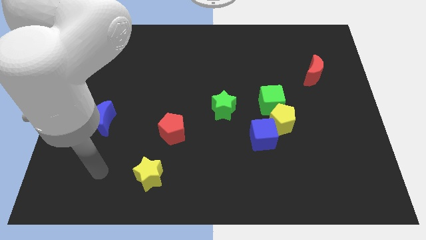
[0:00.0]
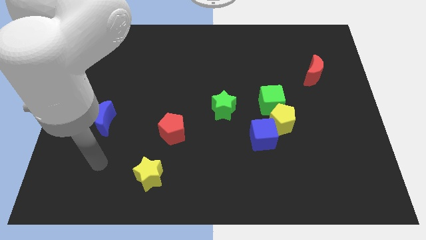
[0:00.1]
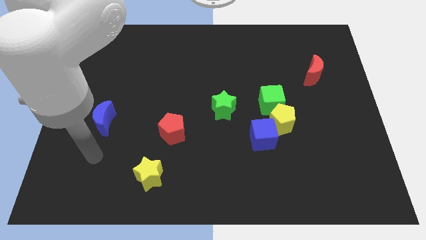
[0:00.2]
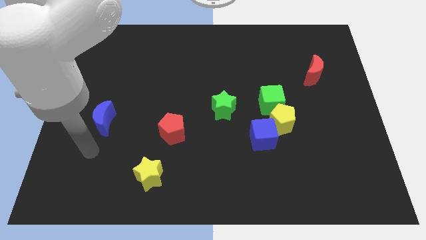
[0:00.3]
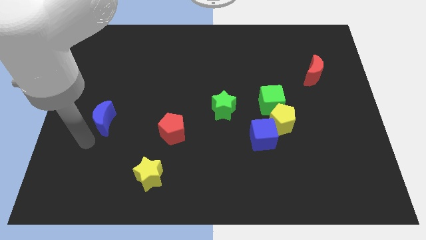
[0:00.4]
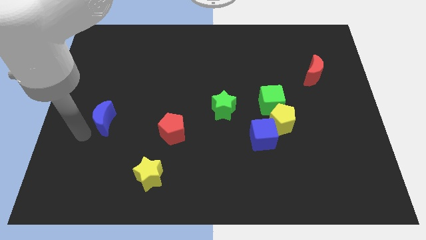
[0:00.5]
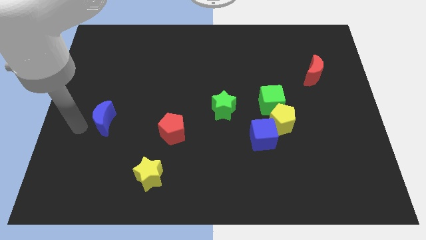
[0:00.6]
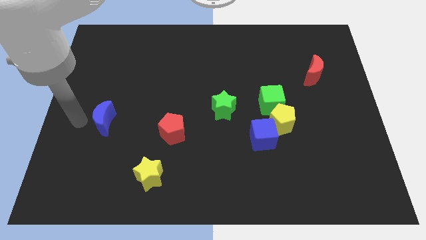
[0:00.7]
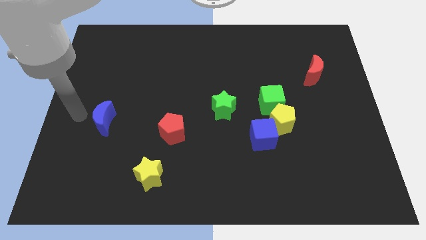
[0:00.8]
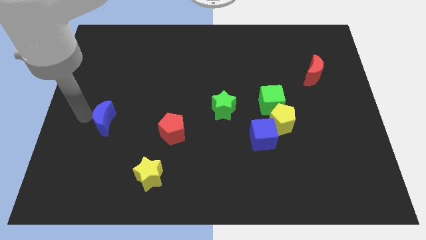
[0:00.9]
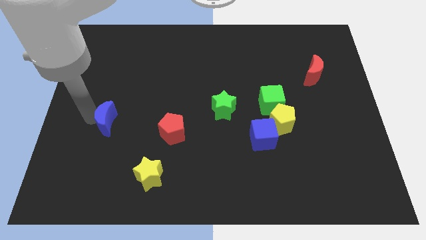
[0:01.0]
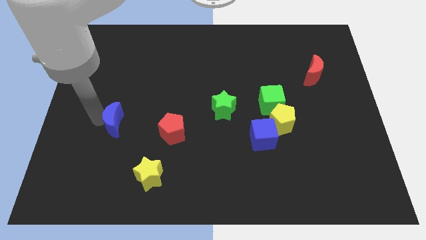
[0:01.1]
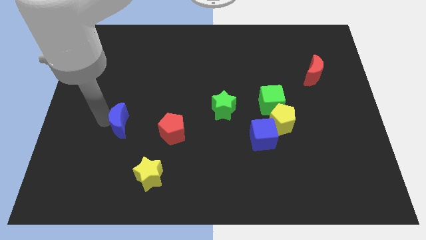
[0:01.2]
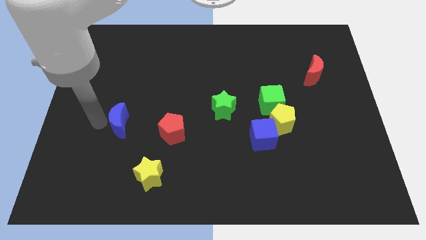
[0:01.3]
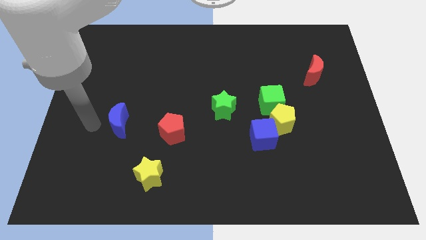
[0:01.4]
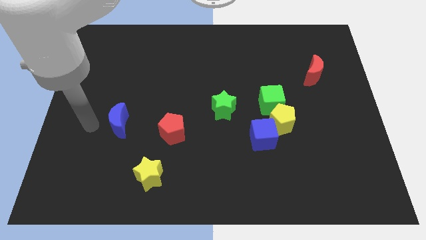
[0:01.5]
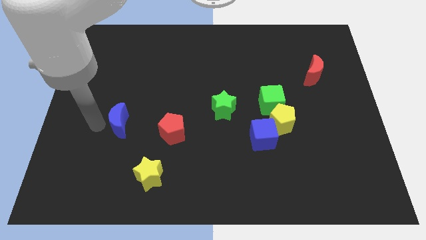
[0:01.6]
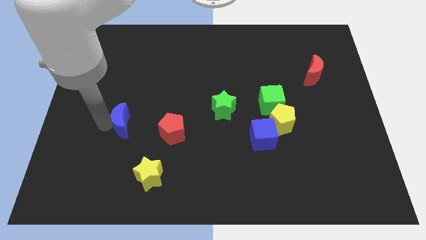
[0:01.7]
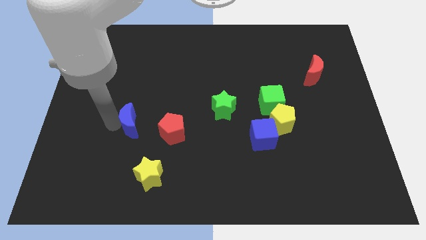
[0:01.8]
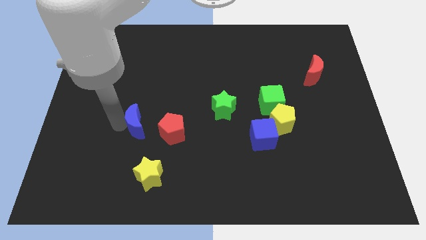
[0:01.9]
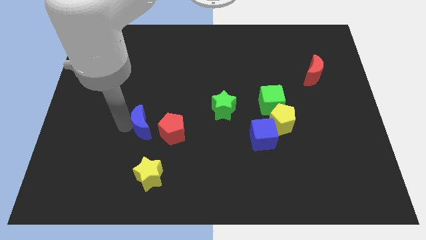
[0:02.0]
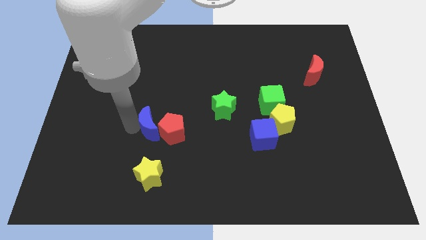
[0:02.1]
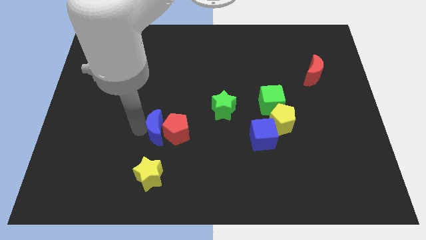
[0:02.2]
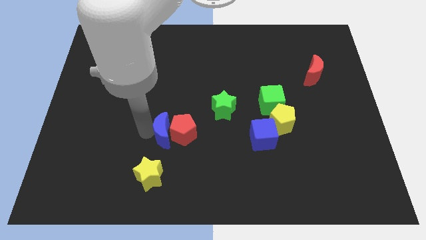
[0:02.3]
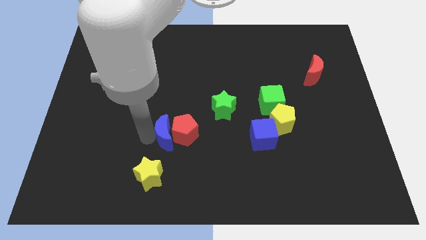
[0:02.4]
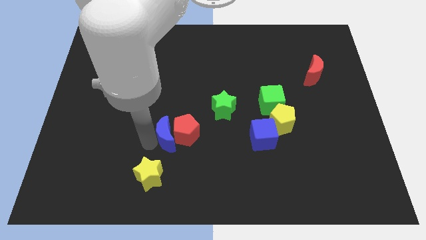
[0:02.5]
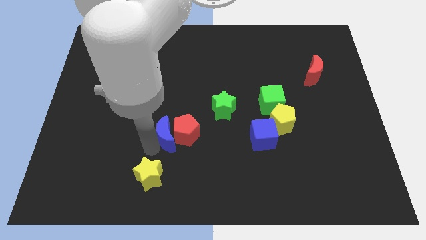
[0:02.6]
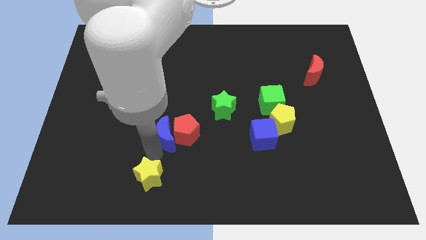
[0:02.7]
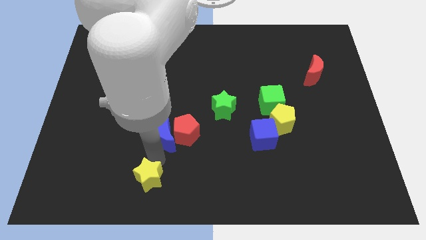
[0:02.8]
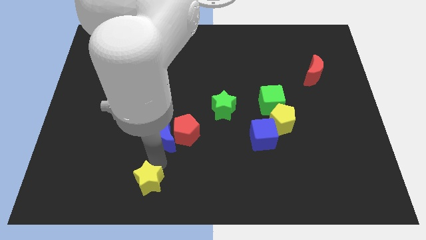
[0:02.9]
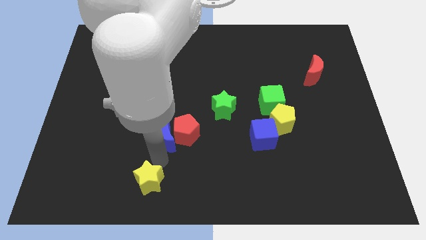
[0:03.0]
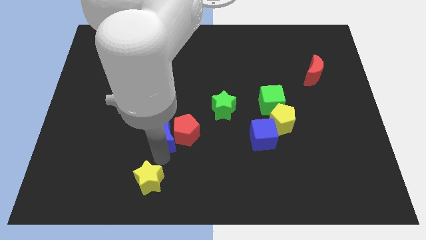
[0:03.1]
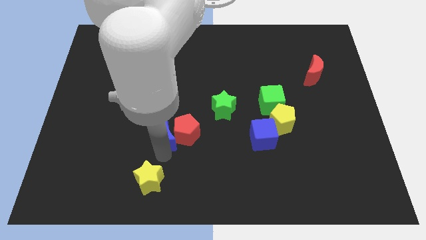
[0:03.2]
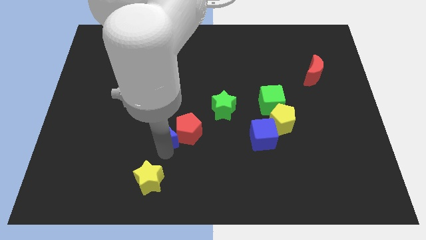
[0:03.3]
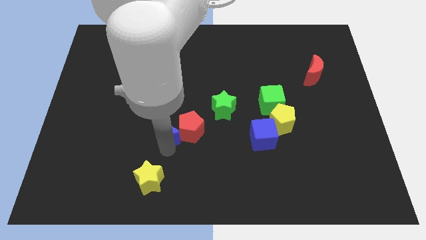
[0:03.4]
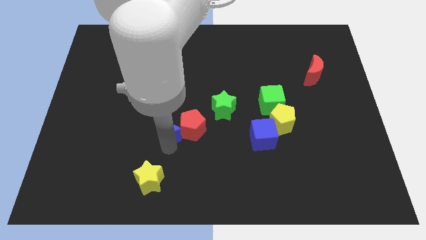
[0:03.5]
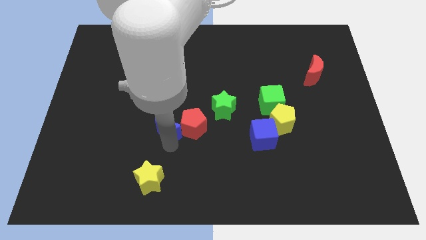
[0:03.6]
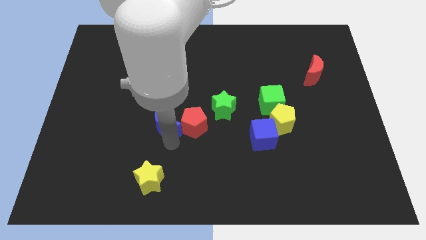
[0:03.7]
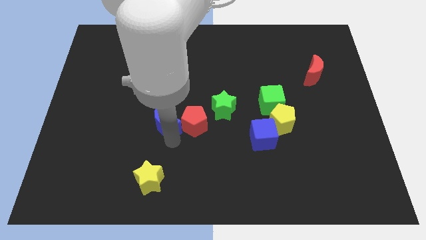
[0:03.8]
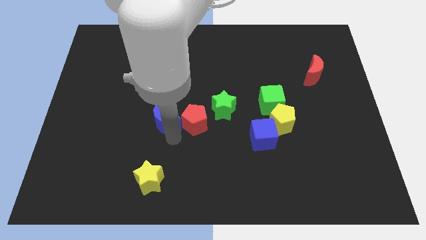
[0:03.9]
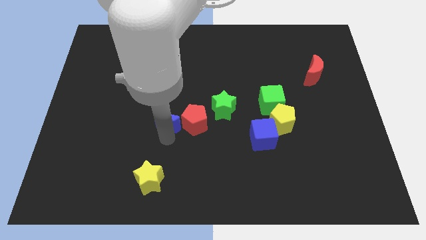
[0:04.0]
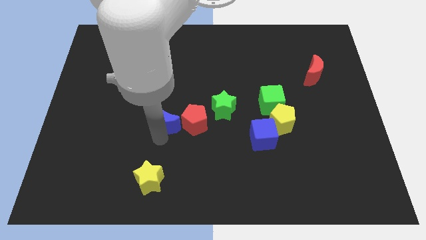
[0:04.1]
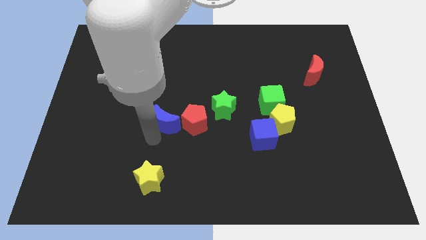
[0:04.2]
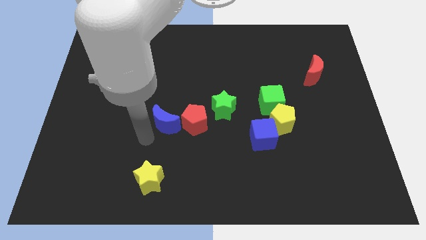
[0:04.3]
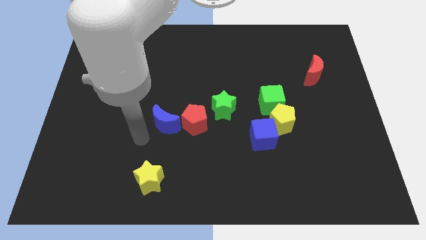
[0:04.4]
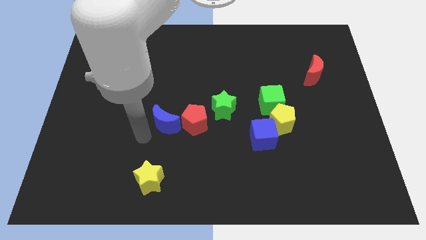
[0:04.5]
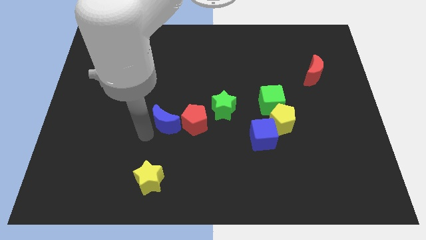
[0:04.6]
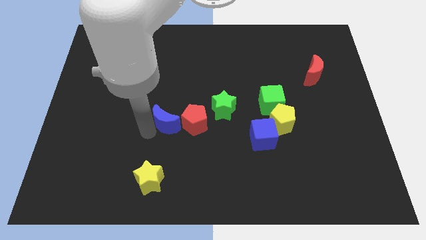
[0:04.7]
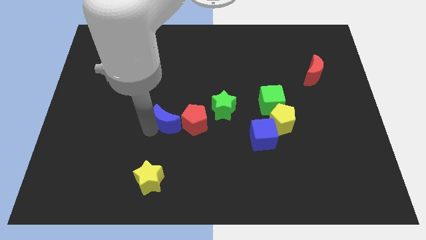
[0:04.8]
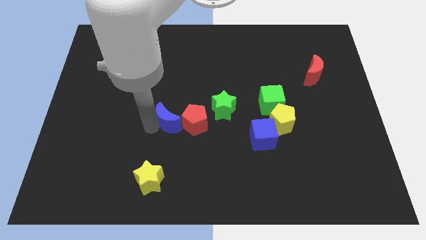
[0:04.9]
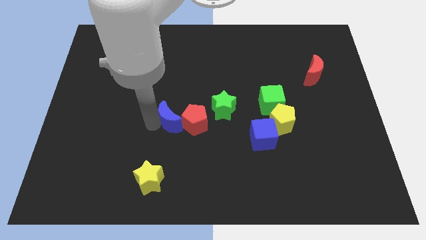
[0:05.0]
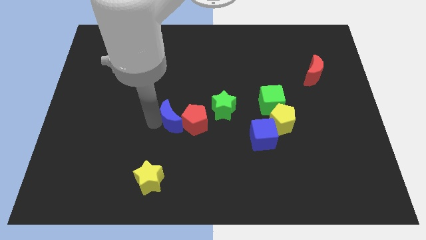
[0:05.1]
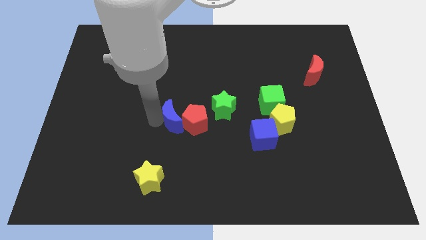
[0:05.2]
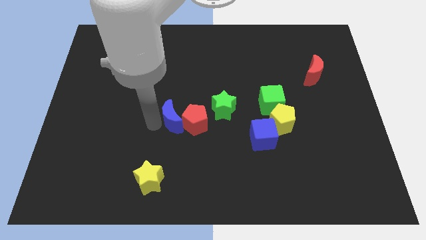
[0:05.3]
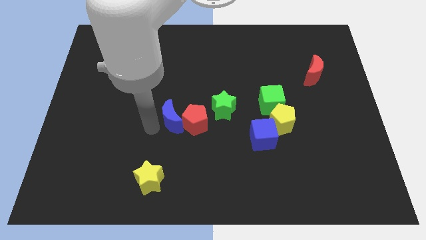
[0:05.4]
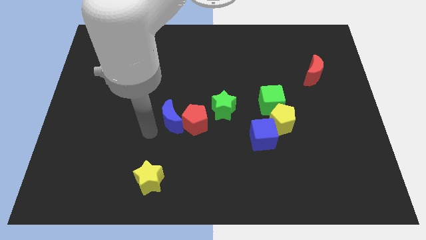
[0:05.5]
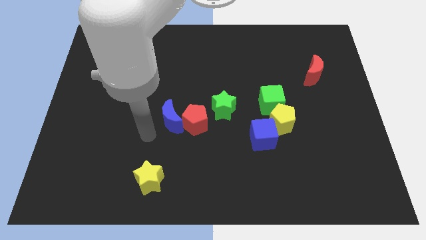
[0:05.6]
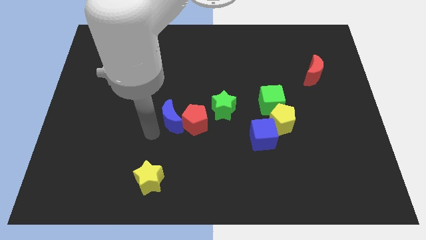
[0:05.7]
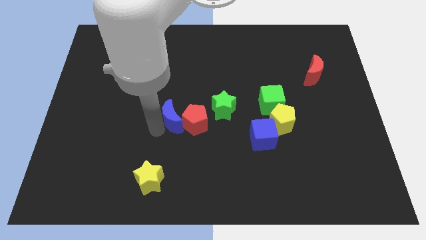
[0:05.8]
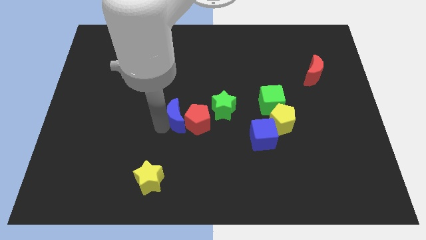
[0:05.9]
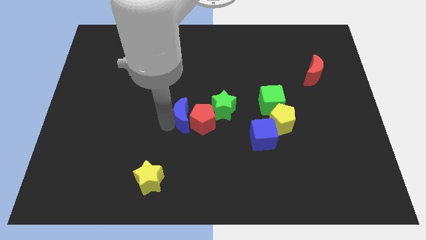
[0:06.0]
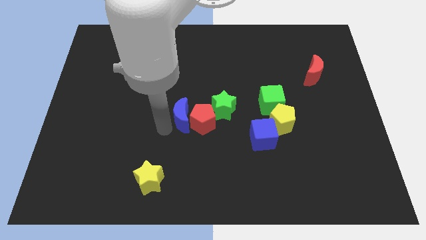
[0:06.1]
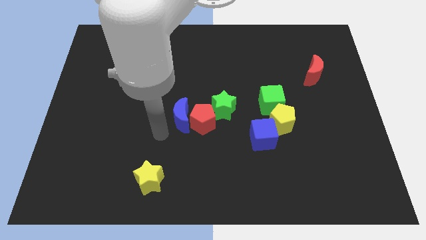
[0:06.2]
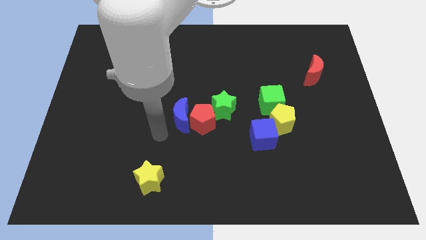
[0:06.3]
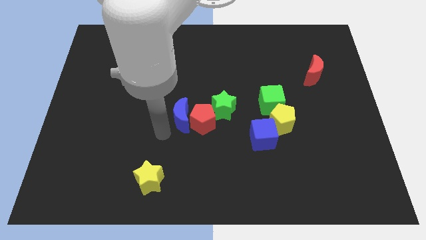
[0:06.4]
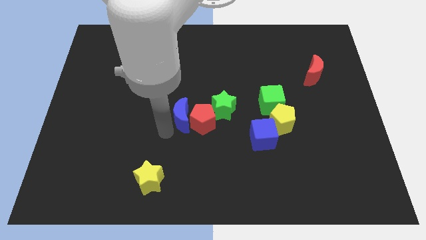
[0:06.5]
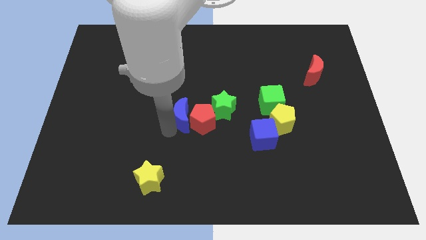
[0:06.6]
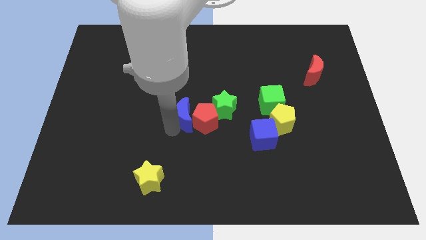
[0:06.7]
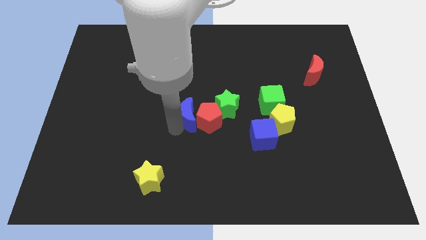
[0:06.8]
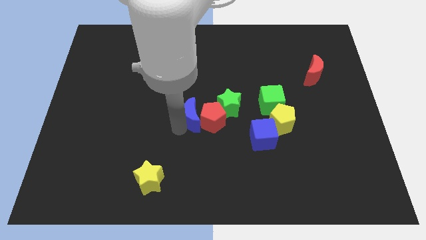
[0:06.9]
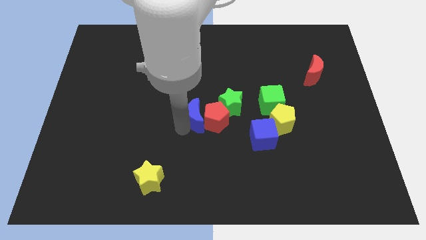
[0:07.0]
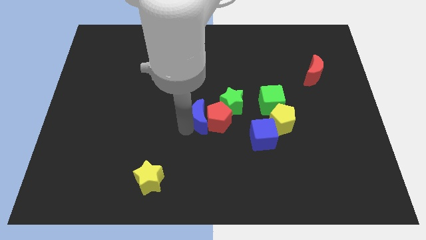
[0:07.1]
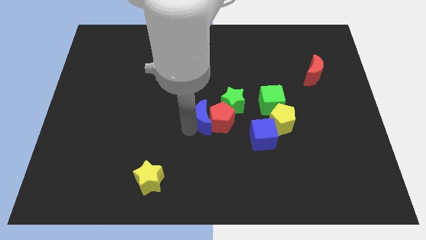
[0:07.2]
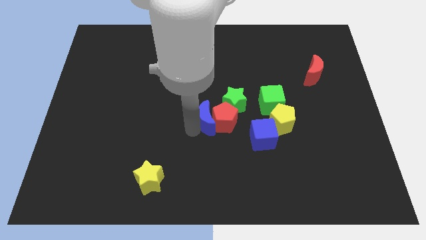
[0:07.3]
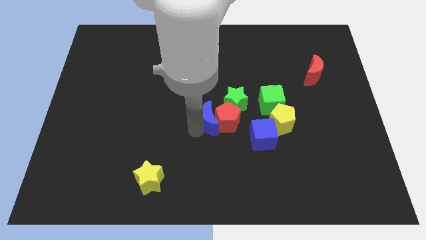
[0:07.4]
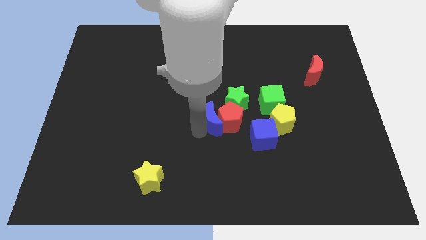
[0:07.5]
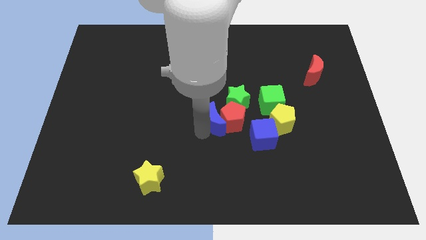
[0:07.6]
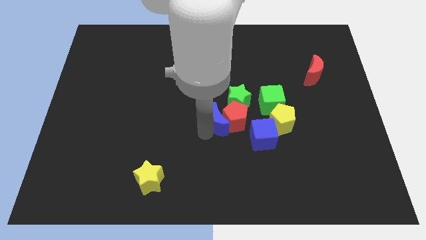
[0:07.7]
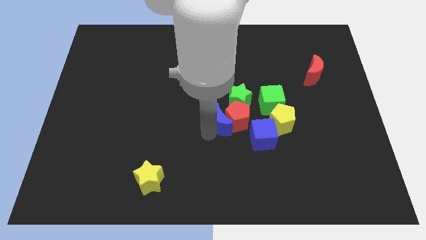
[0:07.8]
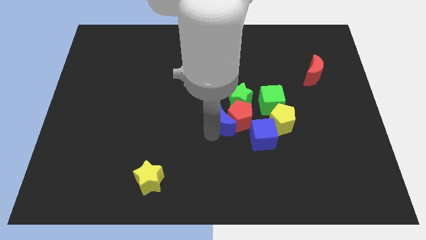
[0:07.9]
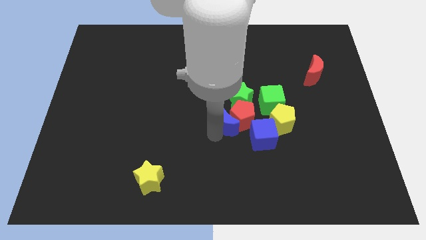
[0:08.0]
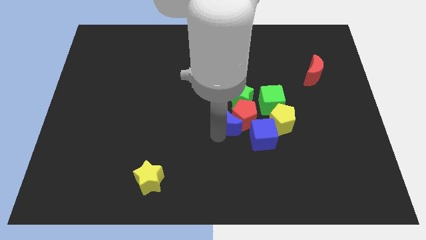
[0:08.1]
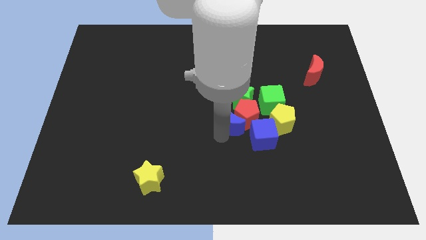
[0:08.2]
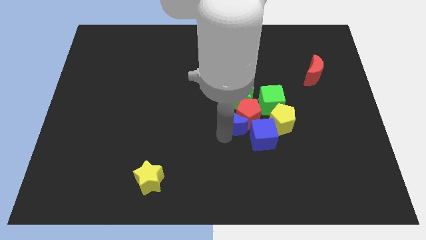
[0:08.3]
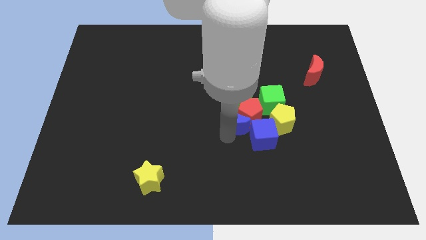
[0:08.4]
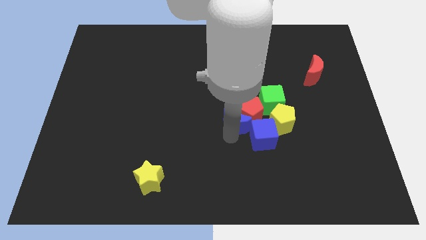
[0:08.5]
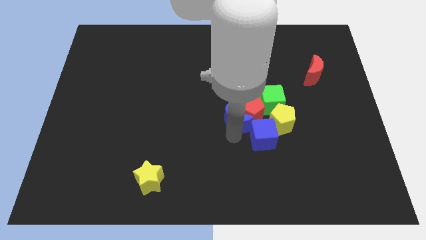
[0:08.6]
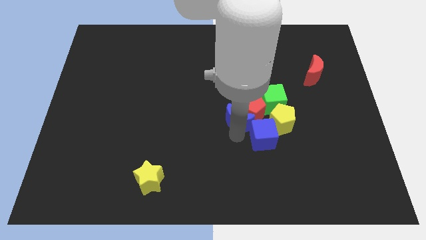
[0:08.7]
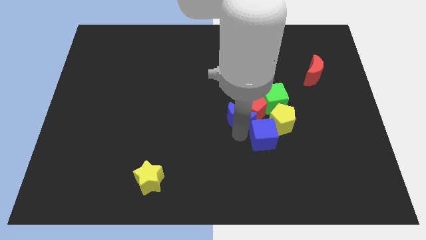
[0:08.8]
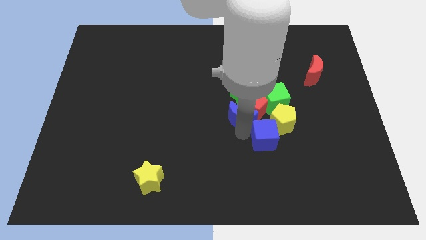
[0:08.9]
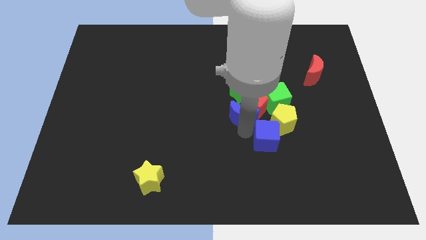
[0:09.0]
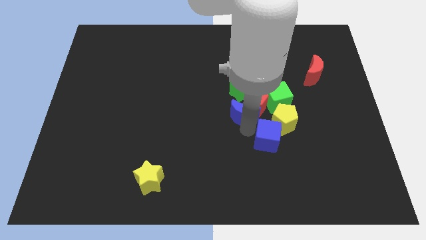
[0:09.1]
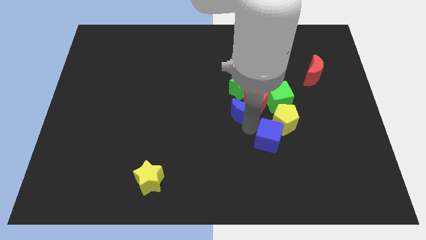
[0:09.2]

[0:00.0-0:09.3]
push the blue moon diagonally up and to the left of the yellow pentagon
